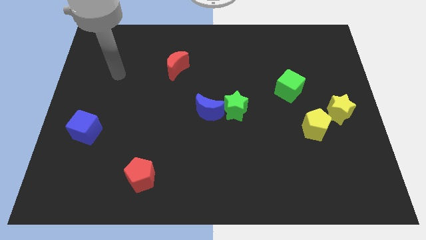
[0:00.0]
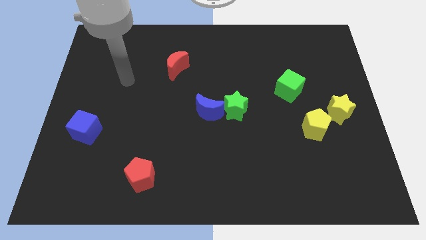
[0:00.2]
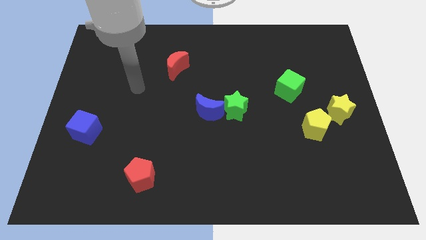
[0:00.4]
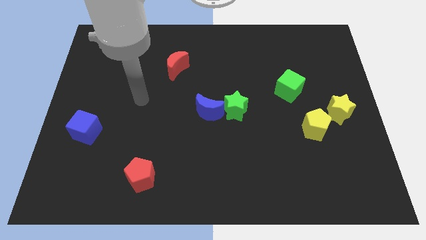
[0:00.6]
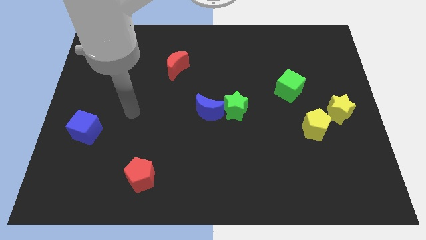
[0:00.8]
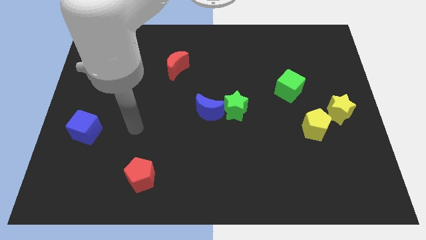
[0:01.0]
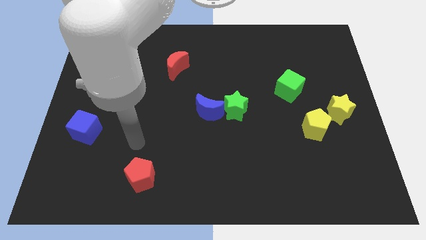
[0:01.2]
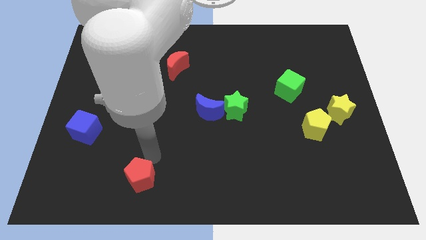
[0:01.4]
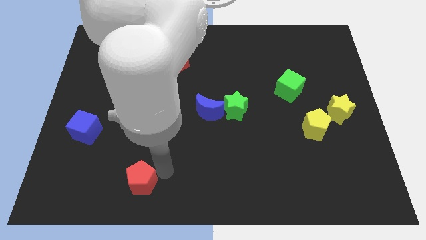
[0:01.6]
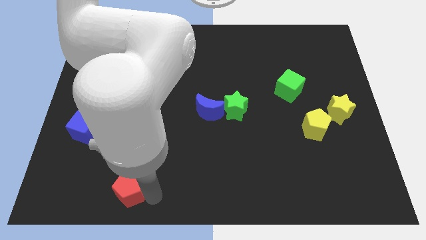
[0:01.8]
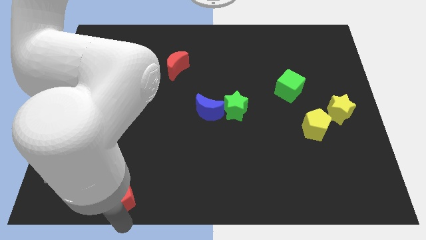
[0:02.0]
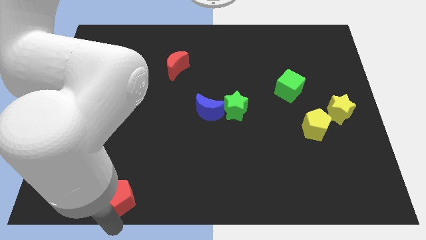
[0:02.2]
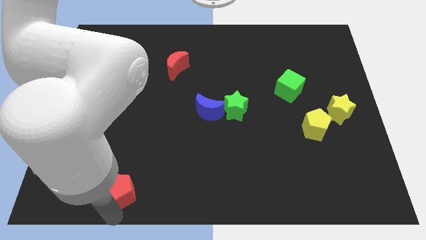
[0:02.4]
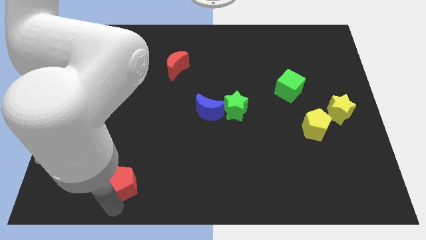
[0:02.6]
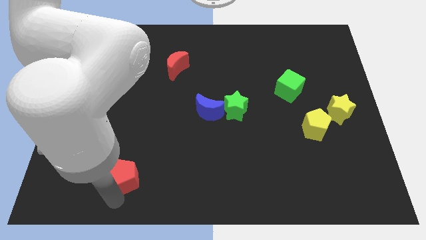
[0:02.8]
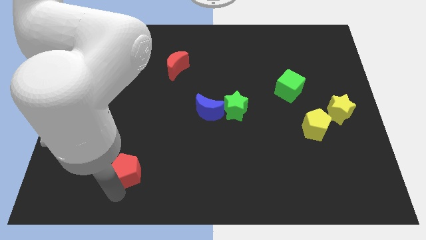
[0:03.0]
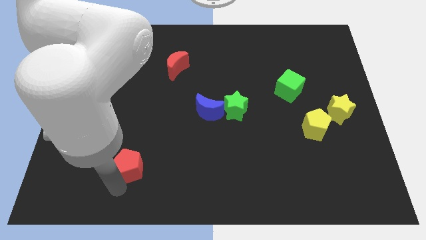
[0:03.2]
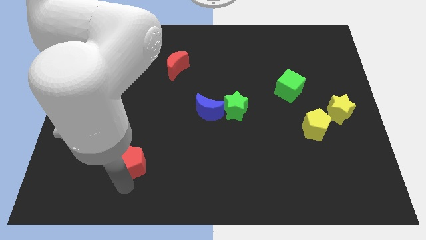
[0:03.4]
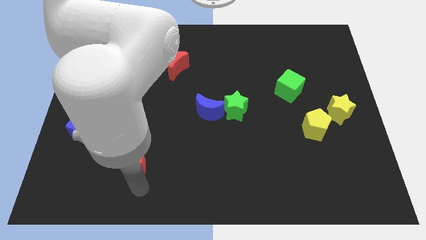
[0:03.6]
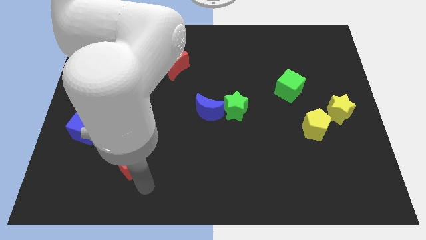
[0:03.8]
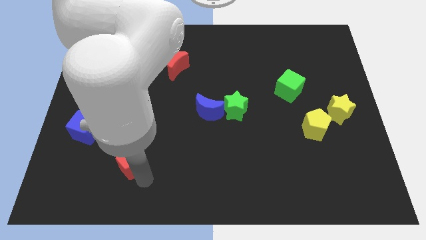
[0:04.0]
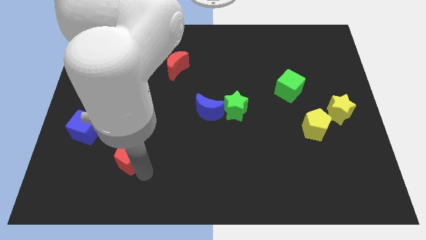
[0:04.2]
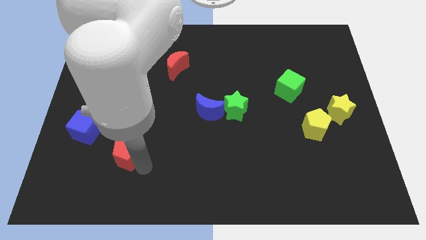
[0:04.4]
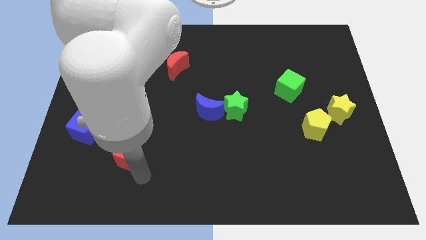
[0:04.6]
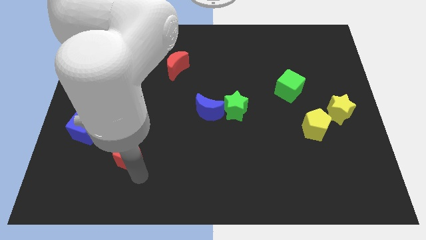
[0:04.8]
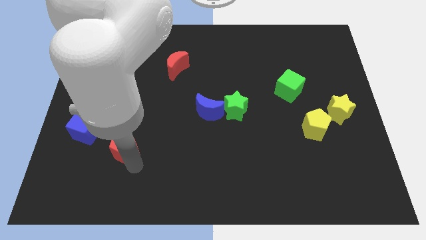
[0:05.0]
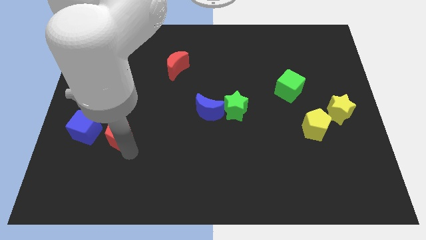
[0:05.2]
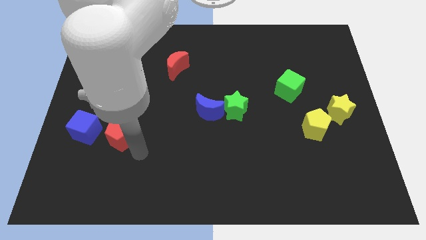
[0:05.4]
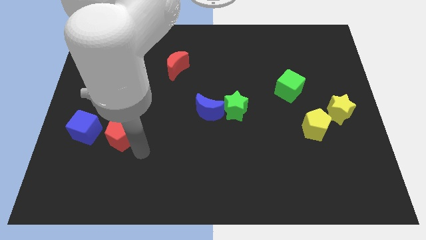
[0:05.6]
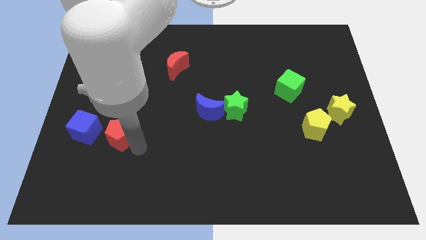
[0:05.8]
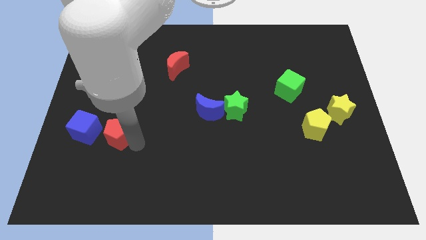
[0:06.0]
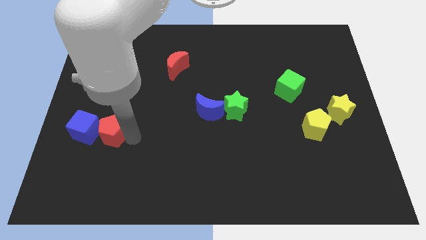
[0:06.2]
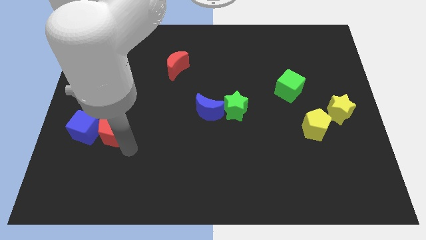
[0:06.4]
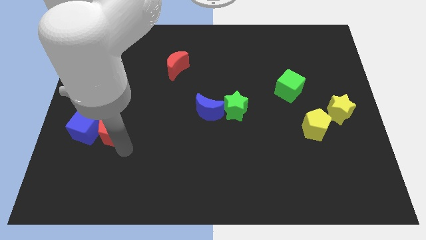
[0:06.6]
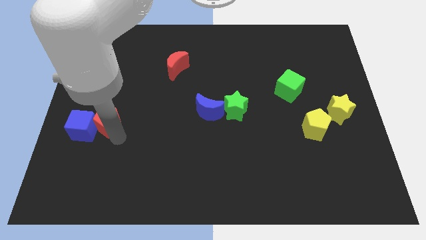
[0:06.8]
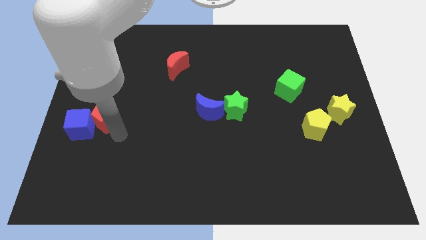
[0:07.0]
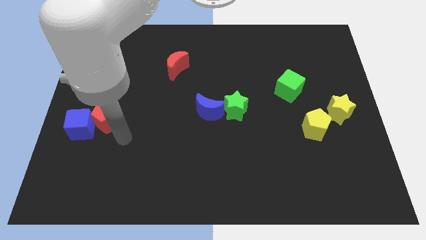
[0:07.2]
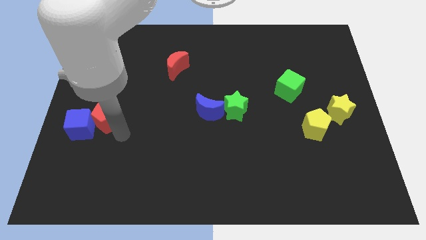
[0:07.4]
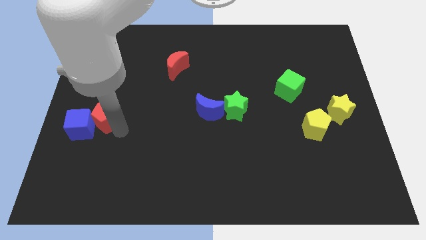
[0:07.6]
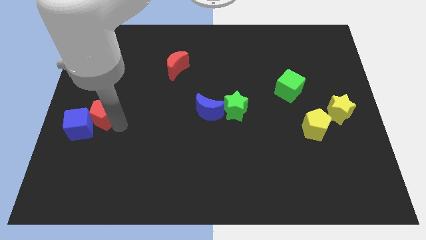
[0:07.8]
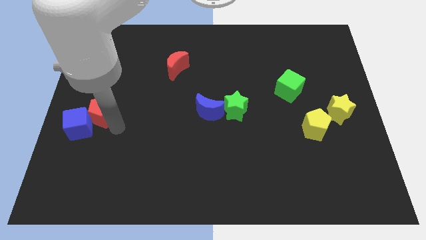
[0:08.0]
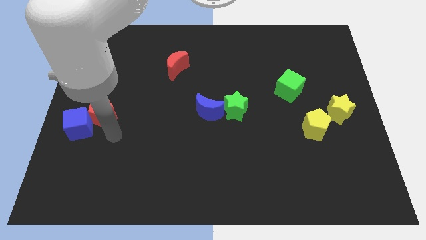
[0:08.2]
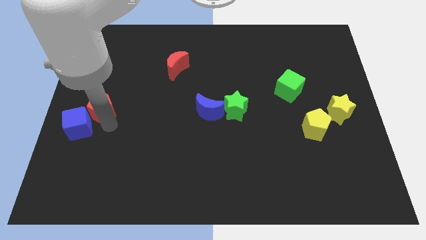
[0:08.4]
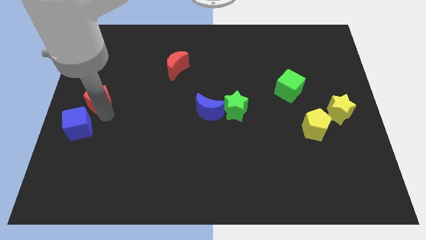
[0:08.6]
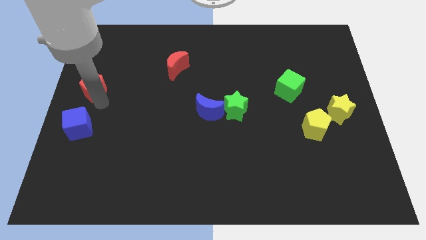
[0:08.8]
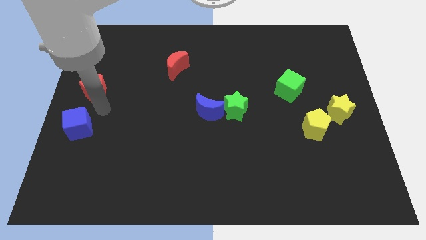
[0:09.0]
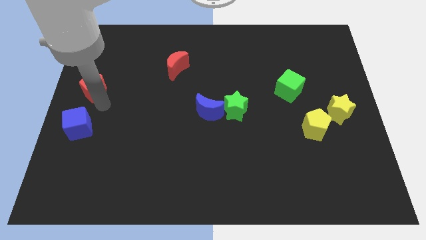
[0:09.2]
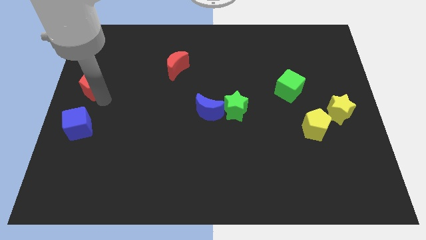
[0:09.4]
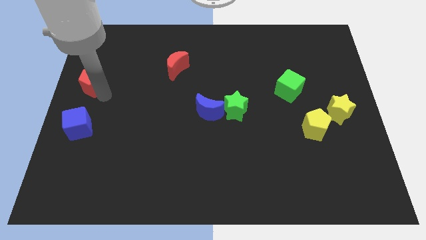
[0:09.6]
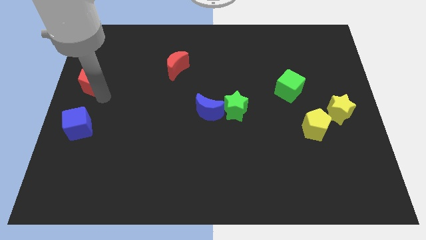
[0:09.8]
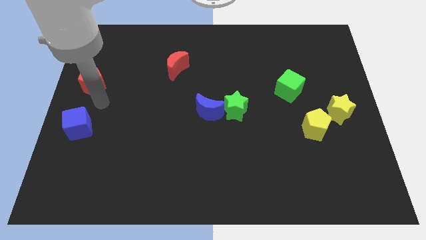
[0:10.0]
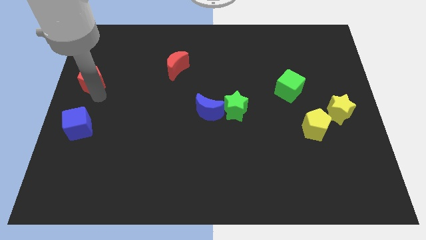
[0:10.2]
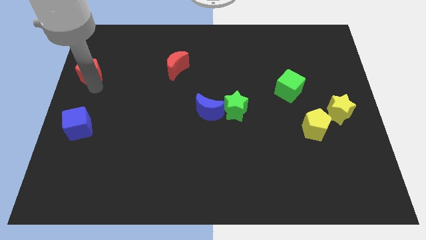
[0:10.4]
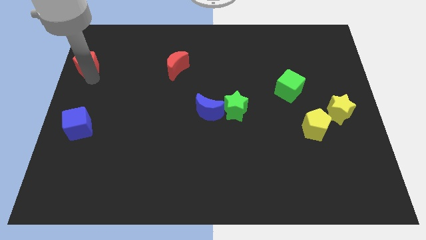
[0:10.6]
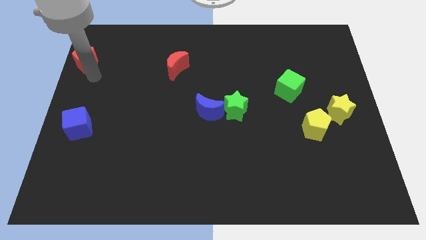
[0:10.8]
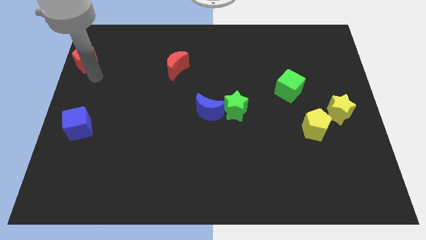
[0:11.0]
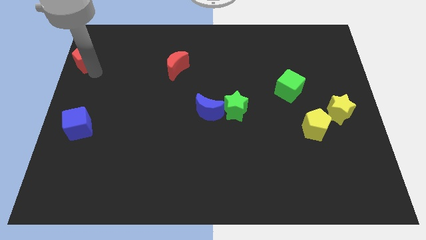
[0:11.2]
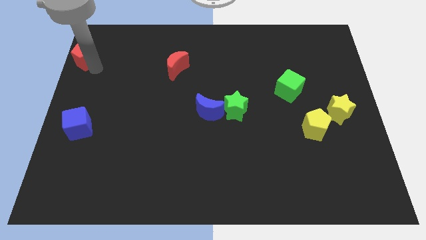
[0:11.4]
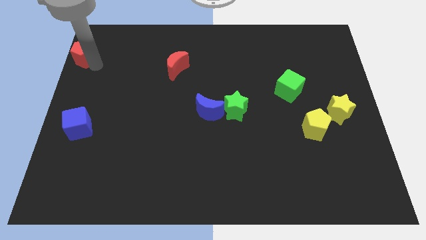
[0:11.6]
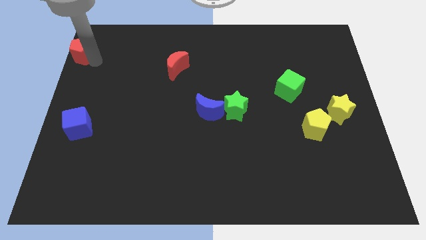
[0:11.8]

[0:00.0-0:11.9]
put the red pentagon to the upper left corner

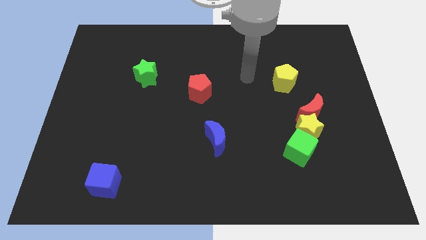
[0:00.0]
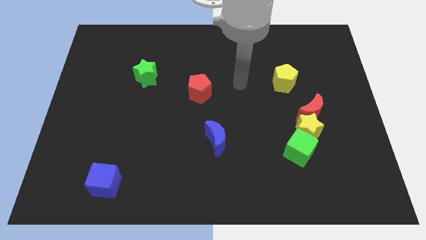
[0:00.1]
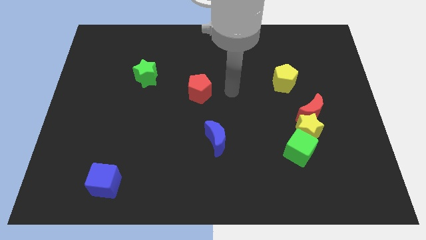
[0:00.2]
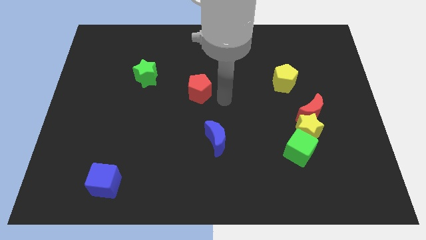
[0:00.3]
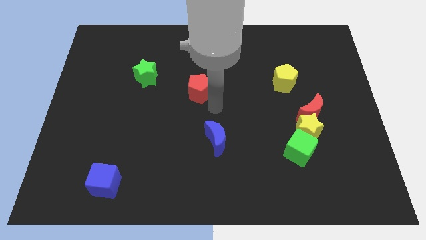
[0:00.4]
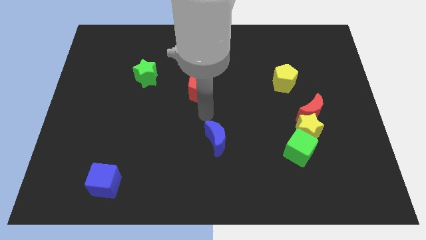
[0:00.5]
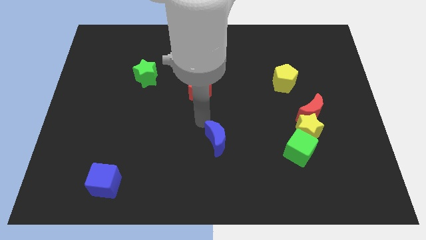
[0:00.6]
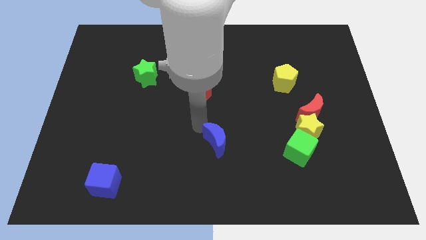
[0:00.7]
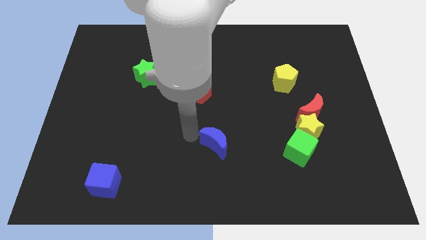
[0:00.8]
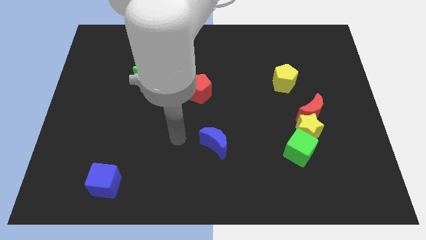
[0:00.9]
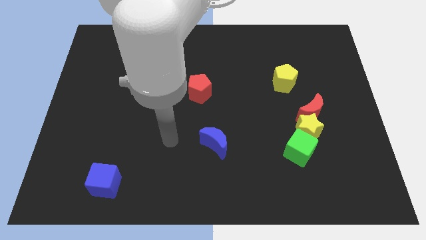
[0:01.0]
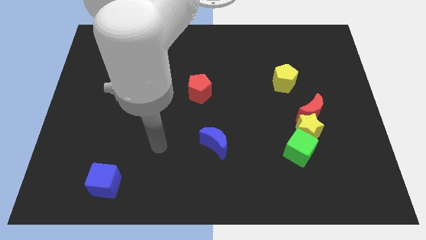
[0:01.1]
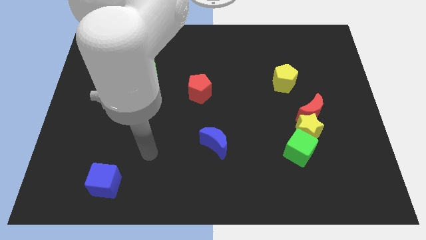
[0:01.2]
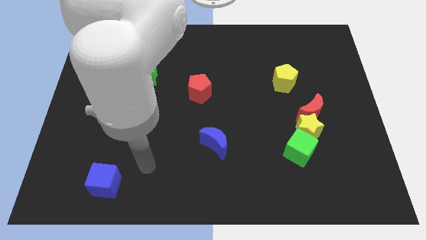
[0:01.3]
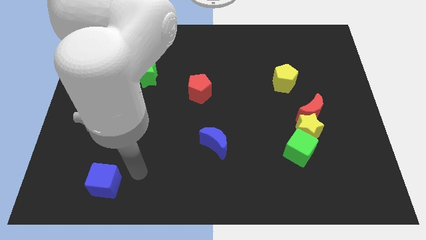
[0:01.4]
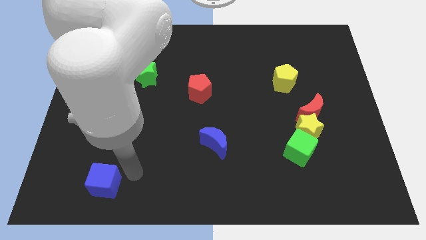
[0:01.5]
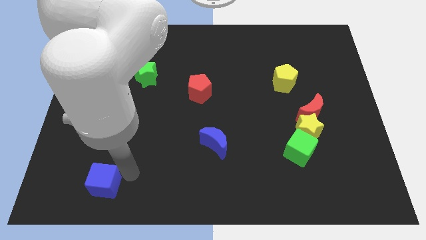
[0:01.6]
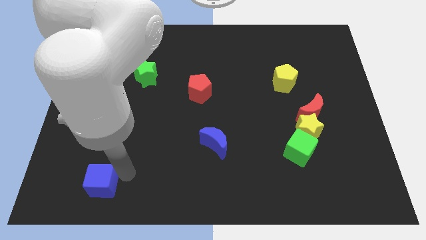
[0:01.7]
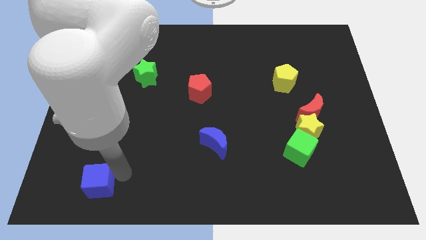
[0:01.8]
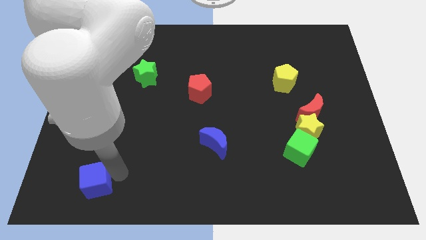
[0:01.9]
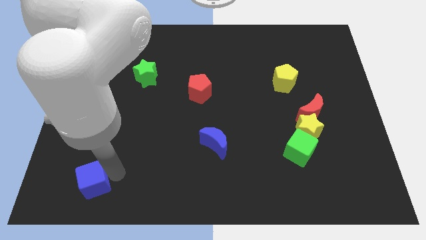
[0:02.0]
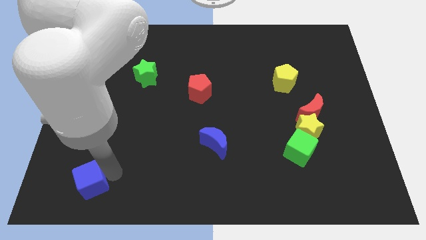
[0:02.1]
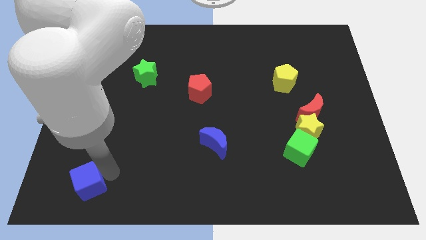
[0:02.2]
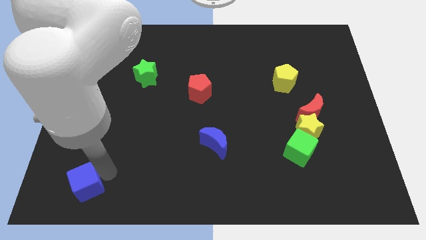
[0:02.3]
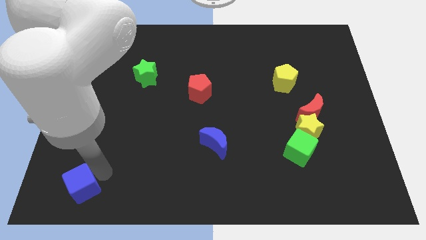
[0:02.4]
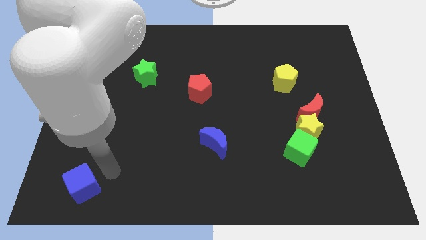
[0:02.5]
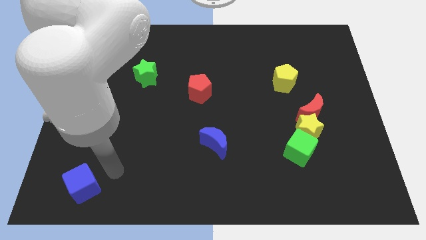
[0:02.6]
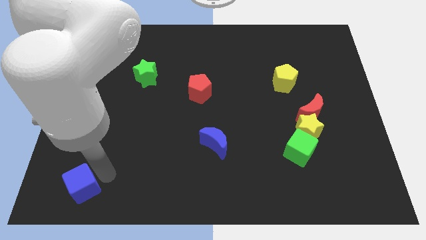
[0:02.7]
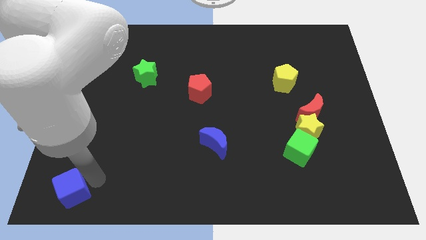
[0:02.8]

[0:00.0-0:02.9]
put the blue cube to the bottom left corner
